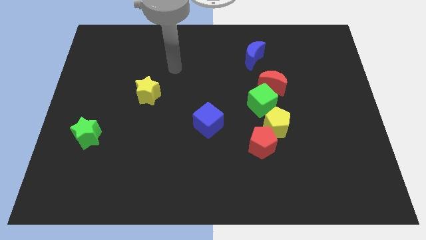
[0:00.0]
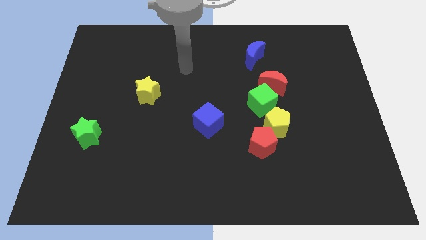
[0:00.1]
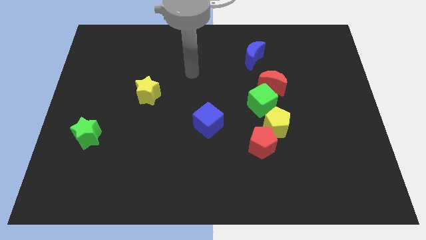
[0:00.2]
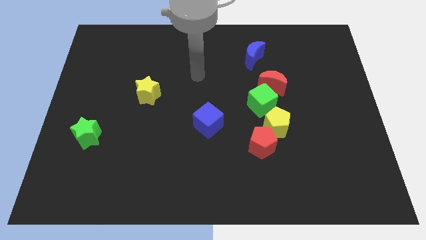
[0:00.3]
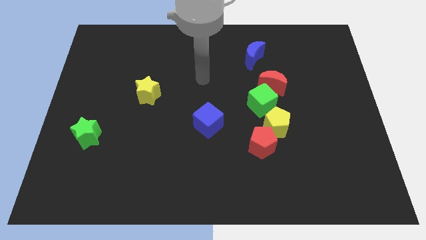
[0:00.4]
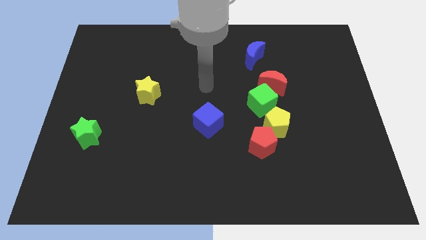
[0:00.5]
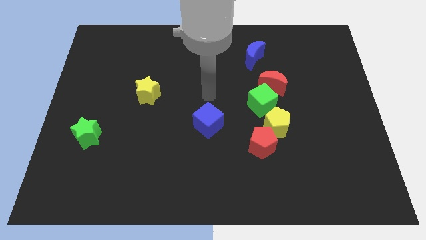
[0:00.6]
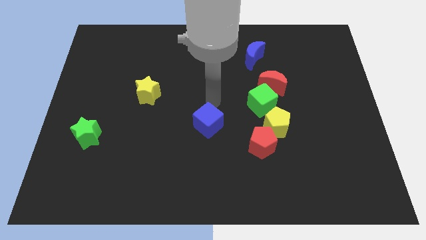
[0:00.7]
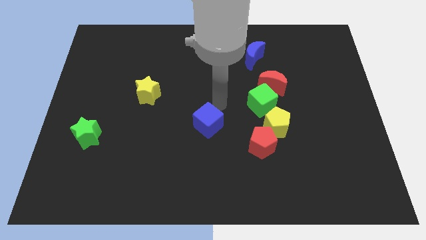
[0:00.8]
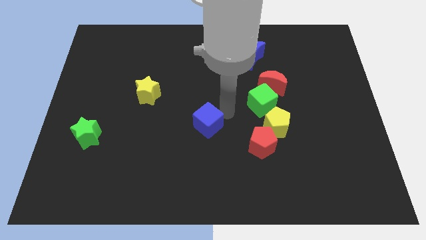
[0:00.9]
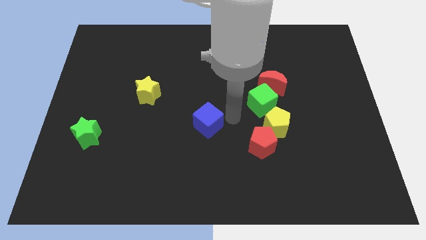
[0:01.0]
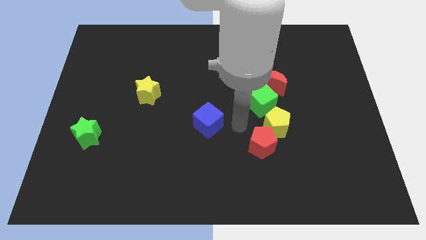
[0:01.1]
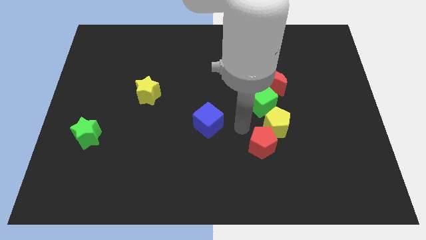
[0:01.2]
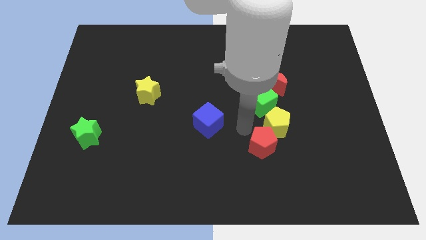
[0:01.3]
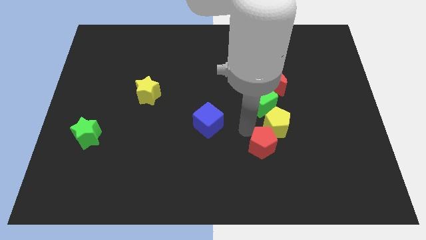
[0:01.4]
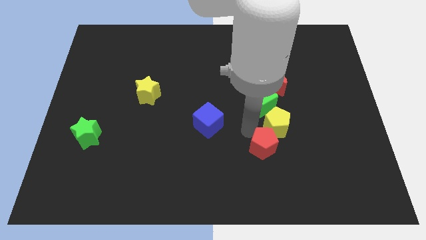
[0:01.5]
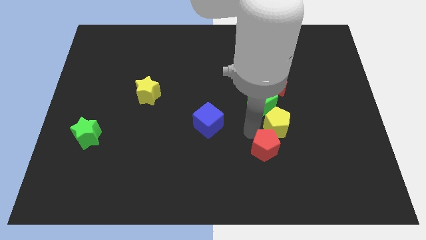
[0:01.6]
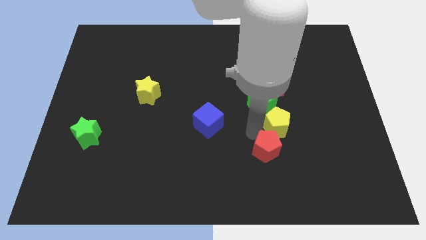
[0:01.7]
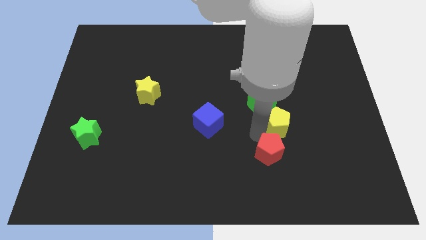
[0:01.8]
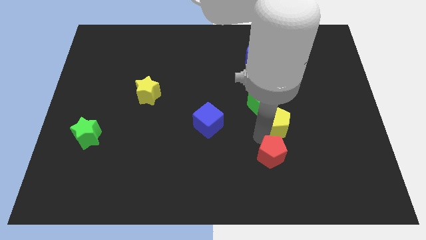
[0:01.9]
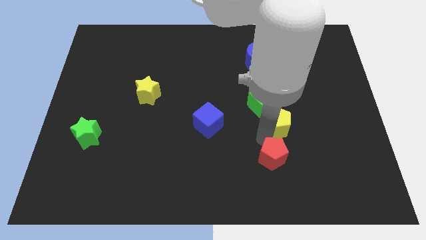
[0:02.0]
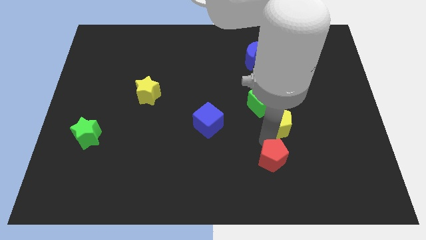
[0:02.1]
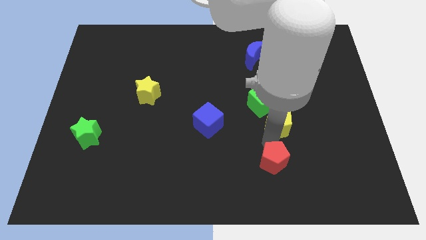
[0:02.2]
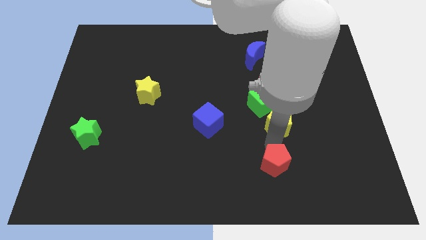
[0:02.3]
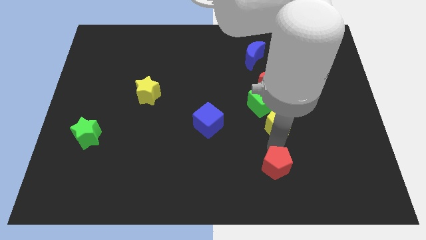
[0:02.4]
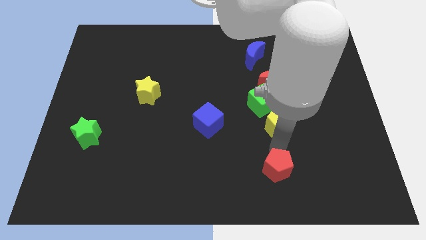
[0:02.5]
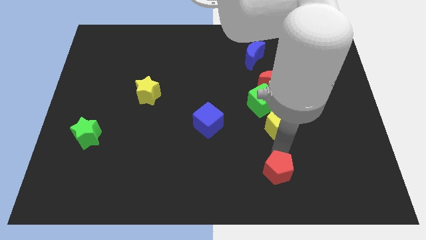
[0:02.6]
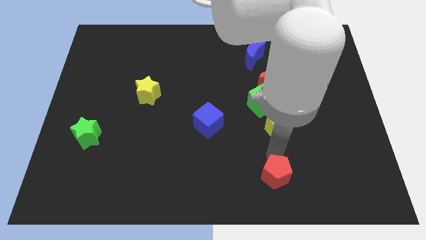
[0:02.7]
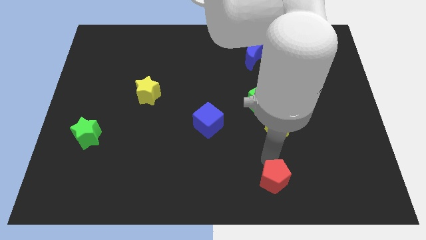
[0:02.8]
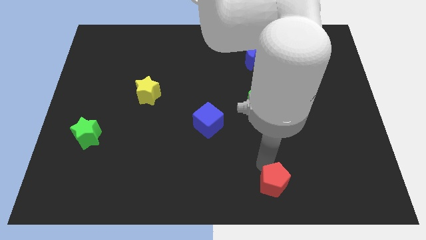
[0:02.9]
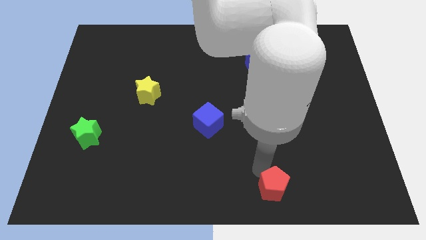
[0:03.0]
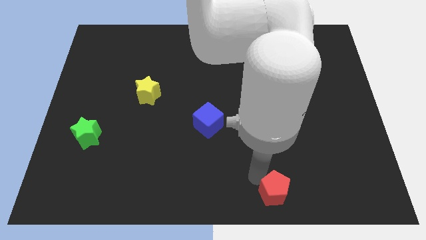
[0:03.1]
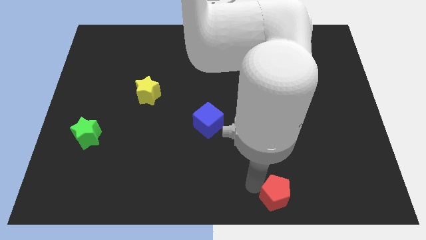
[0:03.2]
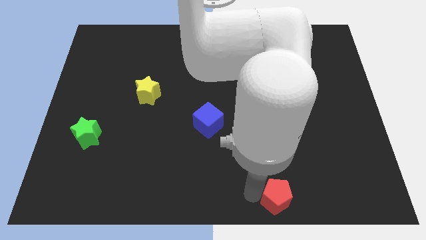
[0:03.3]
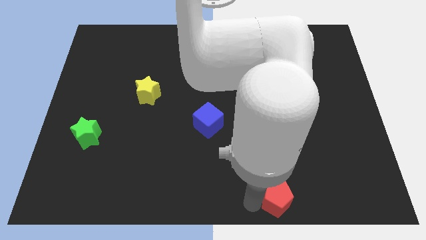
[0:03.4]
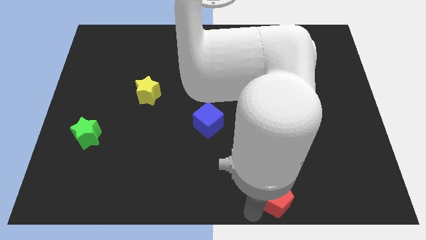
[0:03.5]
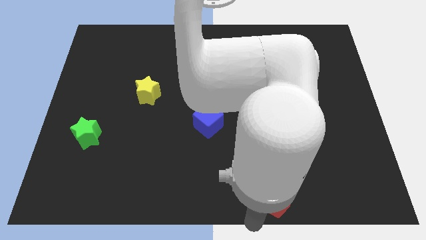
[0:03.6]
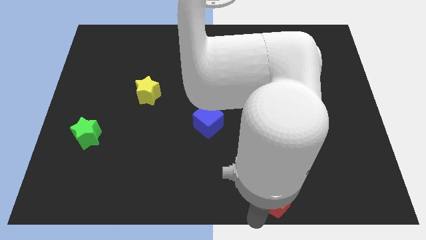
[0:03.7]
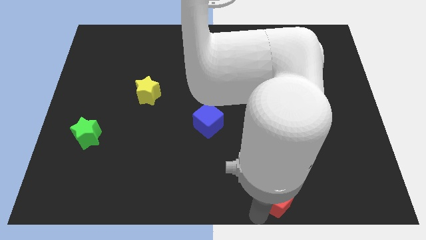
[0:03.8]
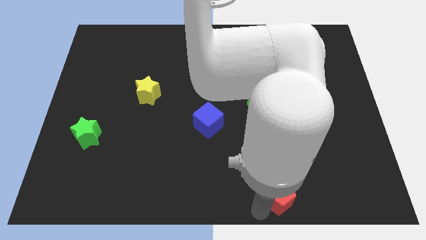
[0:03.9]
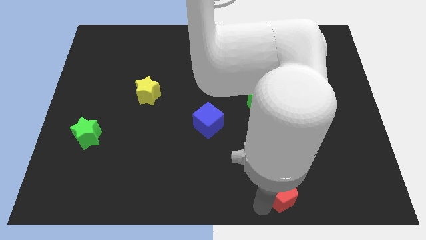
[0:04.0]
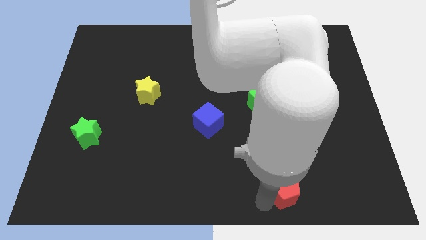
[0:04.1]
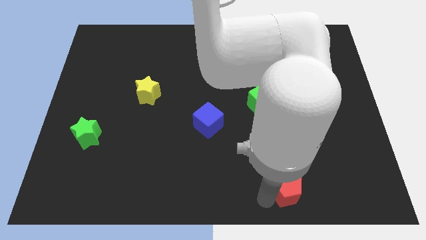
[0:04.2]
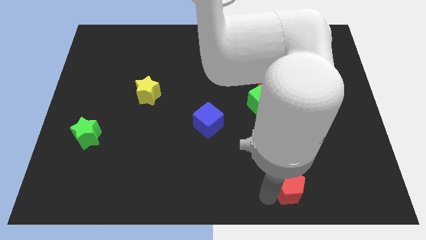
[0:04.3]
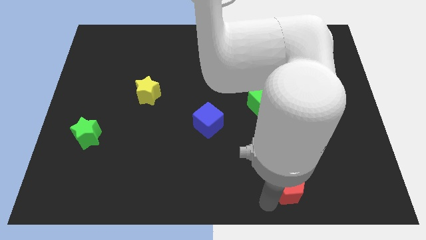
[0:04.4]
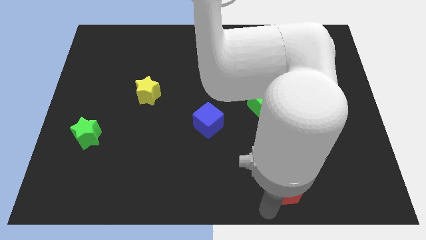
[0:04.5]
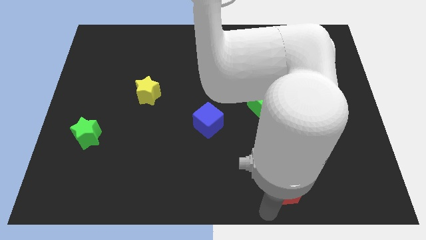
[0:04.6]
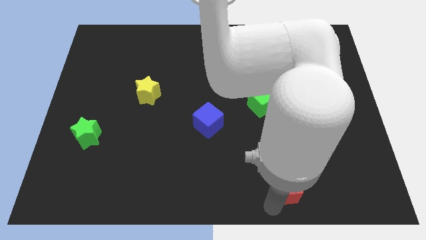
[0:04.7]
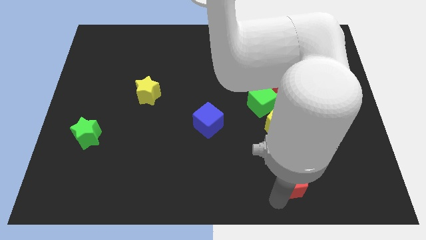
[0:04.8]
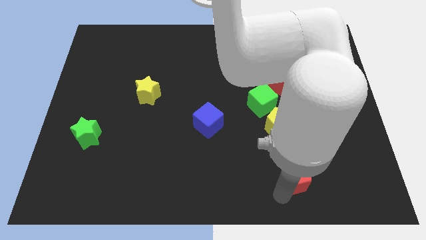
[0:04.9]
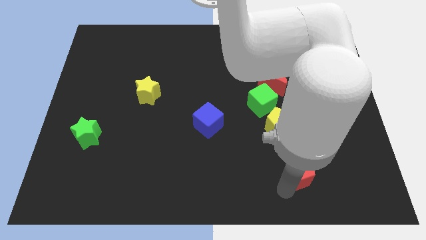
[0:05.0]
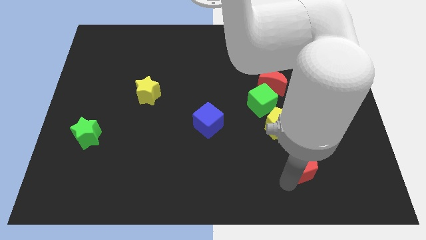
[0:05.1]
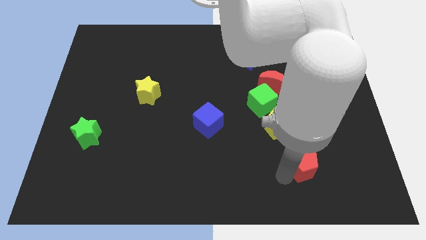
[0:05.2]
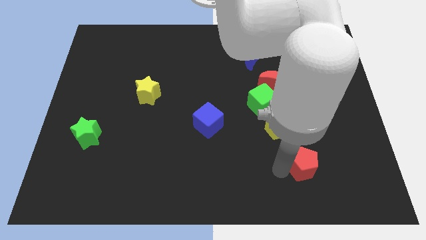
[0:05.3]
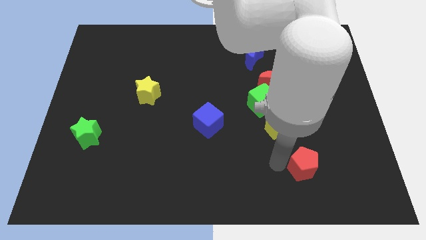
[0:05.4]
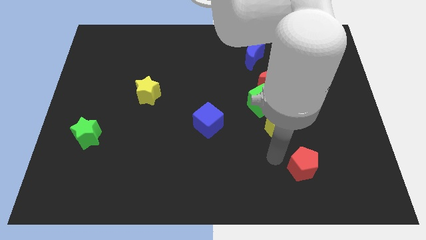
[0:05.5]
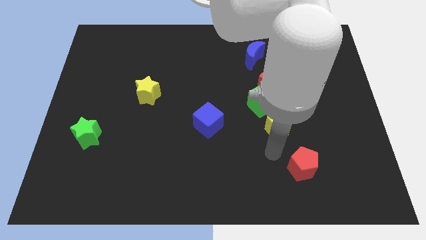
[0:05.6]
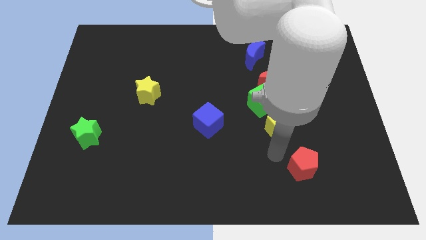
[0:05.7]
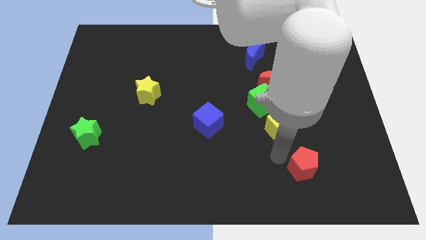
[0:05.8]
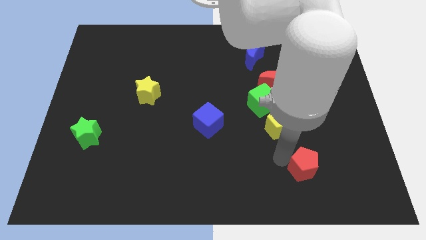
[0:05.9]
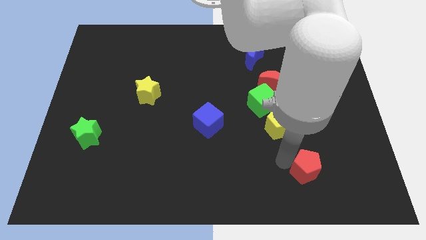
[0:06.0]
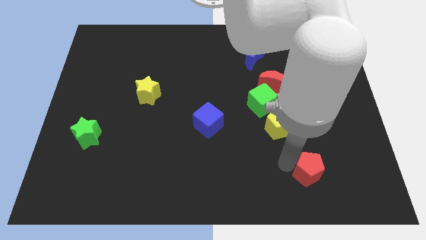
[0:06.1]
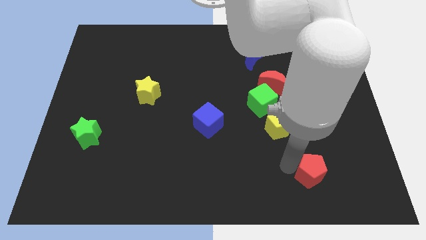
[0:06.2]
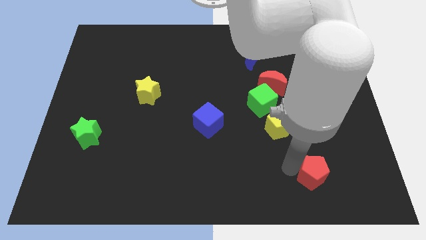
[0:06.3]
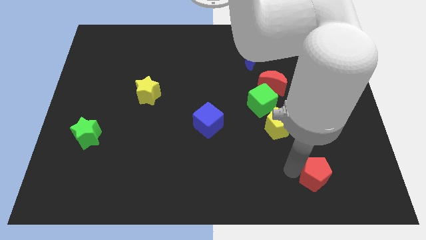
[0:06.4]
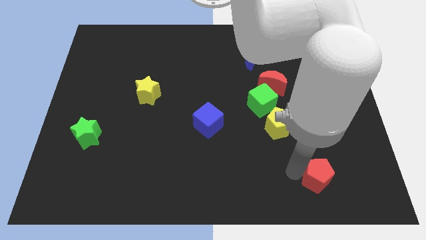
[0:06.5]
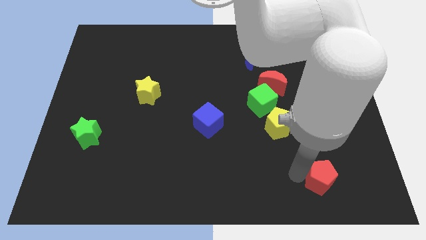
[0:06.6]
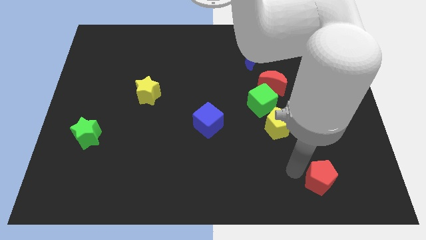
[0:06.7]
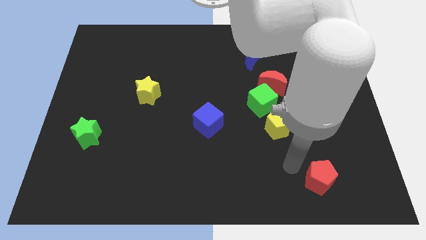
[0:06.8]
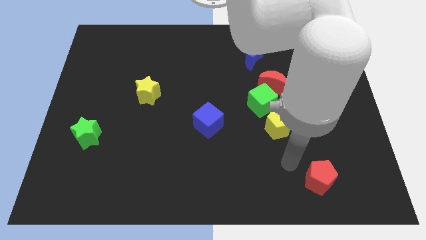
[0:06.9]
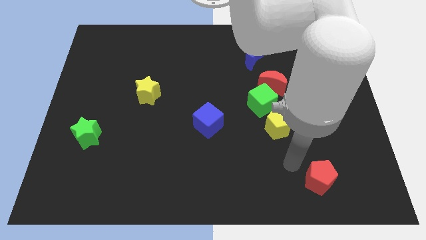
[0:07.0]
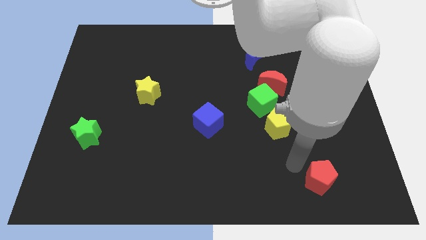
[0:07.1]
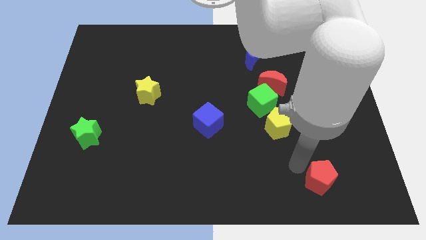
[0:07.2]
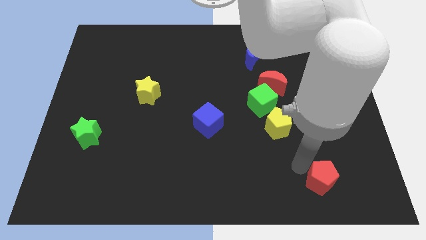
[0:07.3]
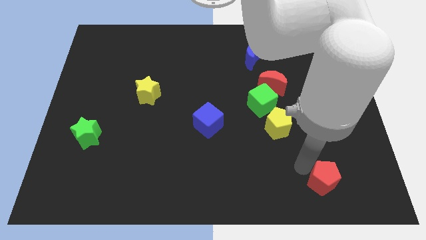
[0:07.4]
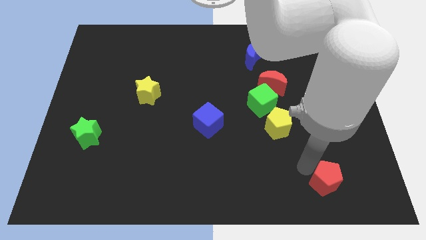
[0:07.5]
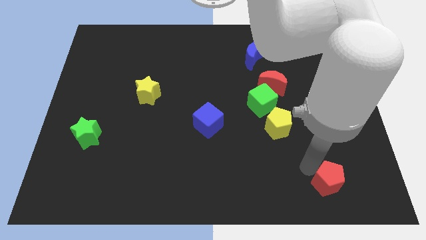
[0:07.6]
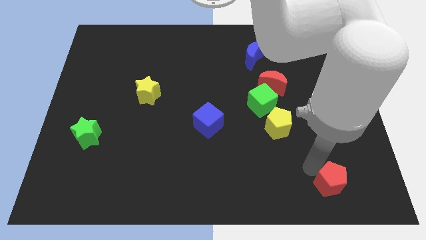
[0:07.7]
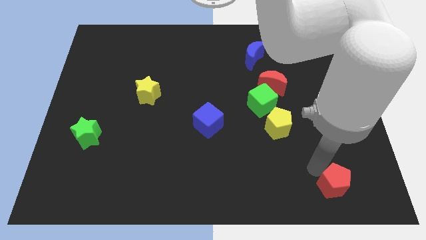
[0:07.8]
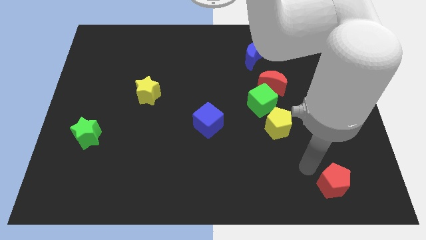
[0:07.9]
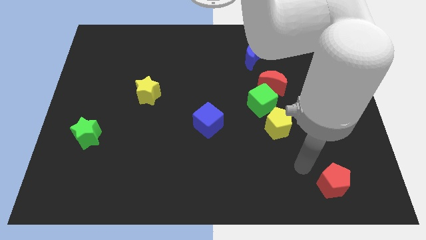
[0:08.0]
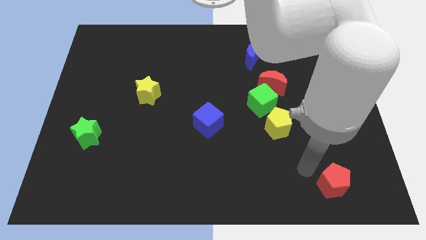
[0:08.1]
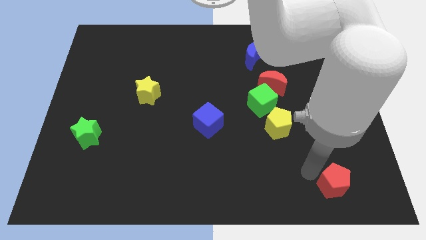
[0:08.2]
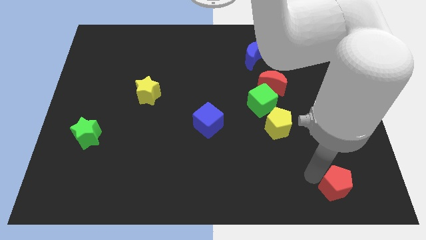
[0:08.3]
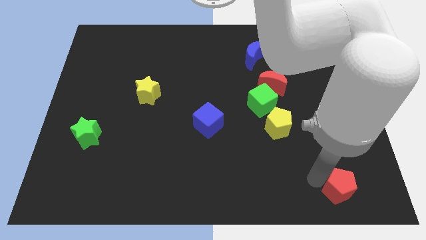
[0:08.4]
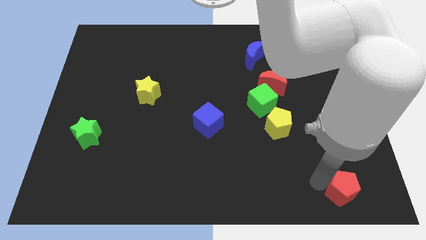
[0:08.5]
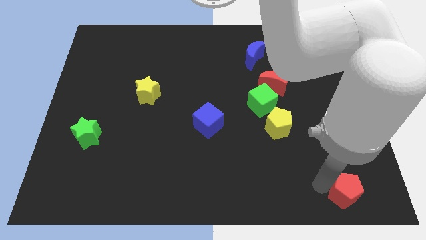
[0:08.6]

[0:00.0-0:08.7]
put the red pentagon to the lower right corner
